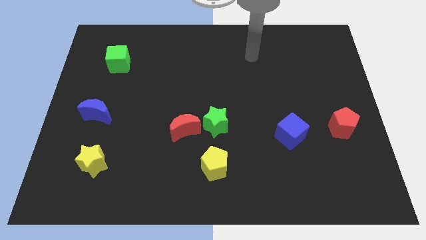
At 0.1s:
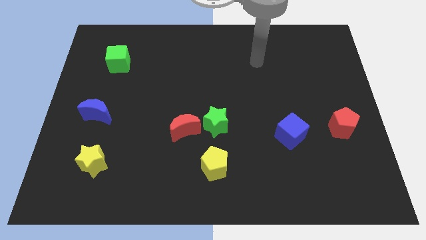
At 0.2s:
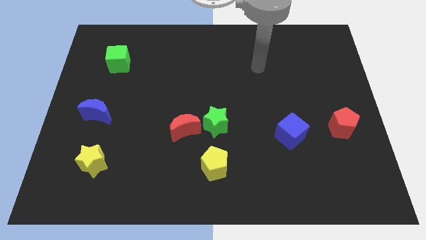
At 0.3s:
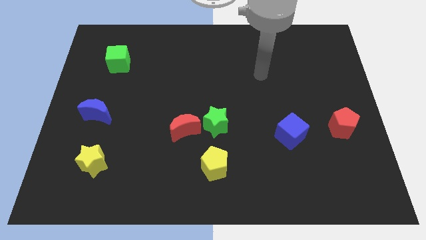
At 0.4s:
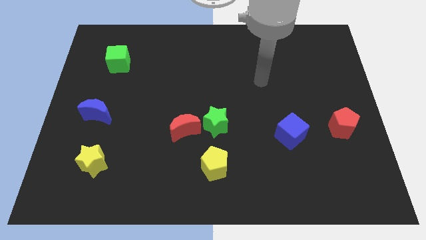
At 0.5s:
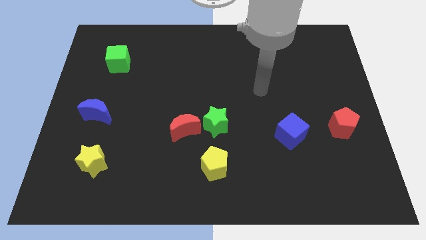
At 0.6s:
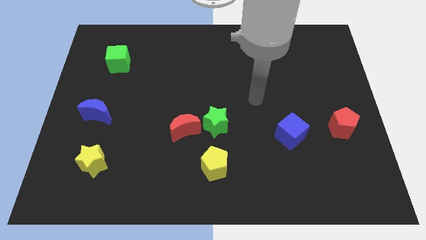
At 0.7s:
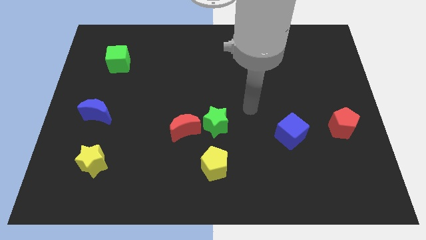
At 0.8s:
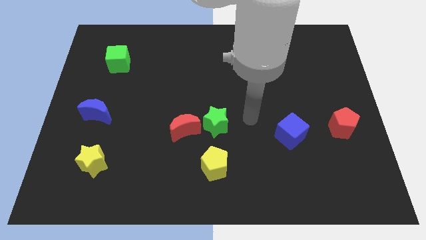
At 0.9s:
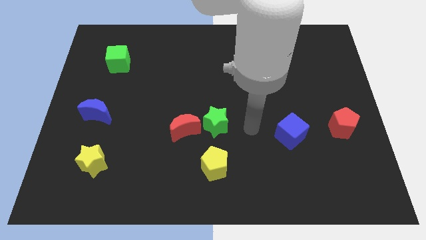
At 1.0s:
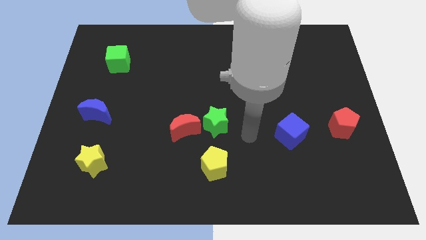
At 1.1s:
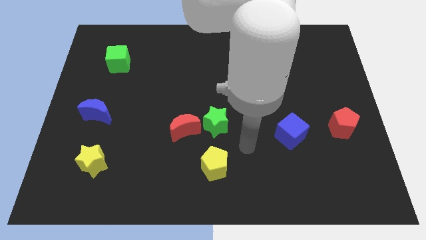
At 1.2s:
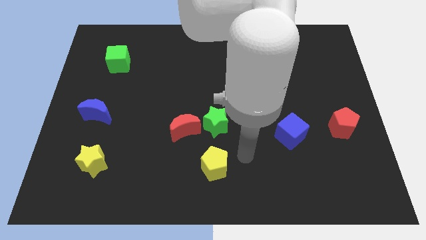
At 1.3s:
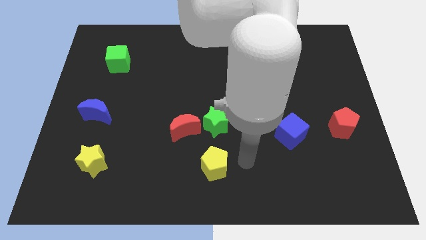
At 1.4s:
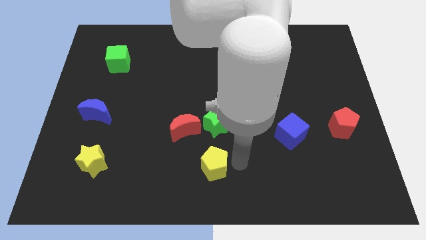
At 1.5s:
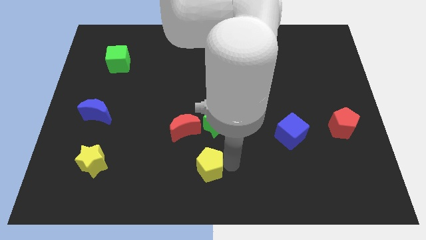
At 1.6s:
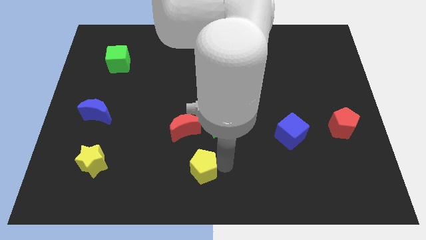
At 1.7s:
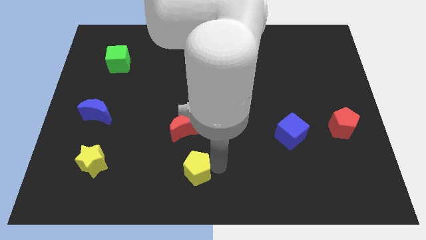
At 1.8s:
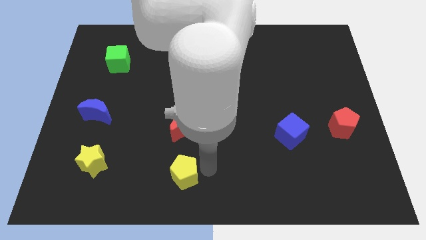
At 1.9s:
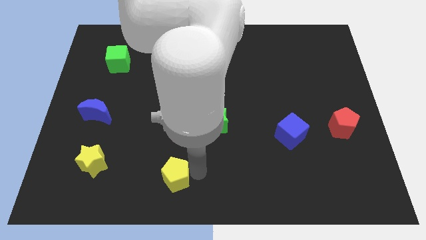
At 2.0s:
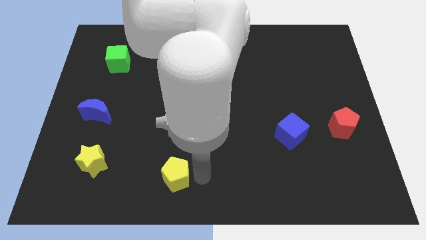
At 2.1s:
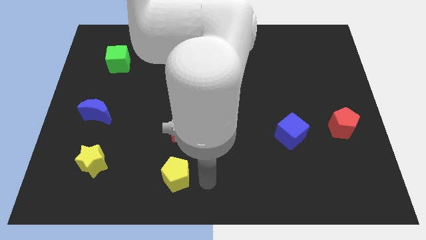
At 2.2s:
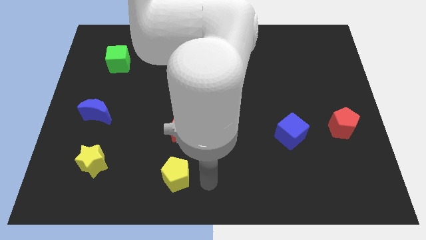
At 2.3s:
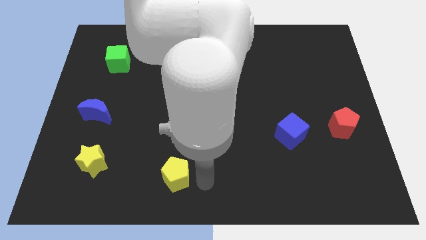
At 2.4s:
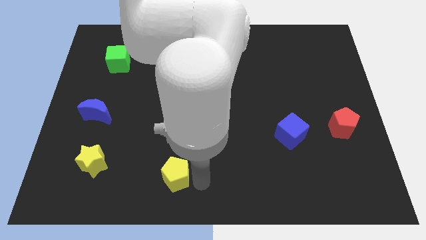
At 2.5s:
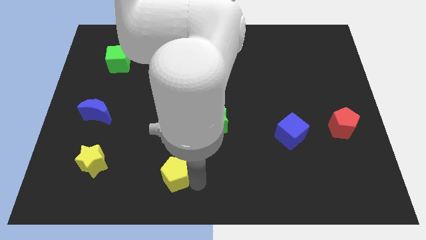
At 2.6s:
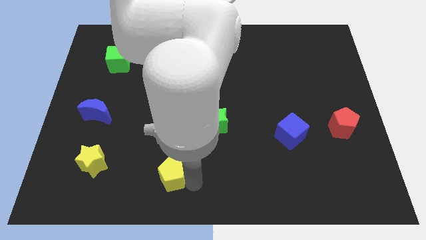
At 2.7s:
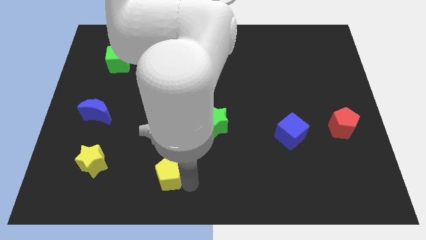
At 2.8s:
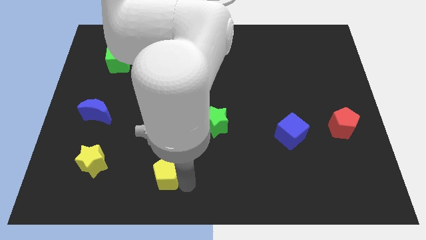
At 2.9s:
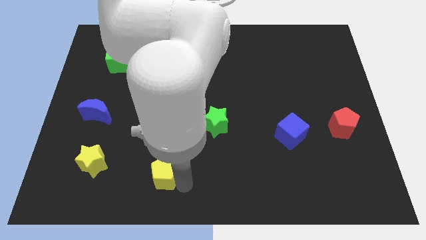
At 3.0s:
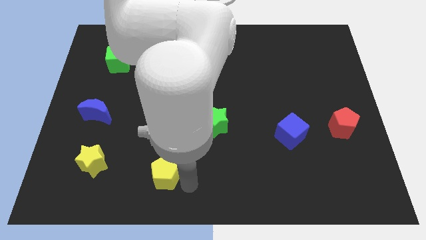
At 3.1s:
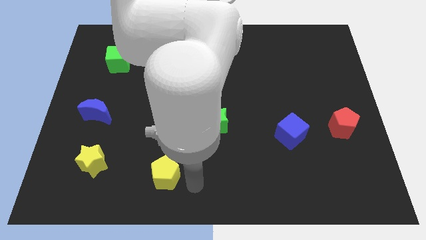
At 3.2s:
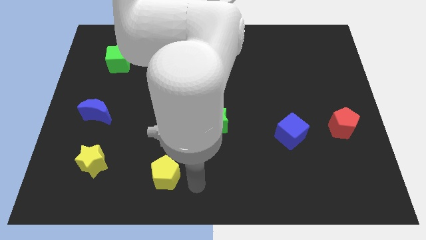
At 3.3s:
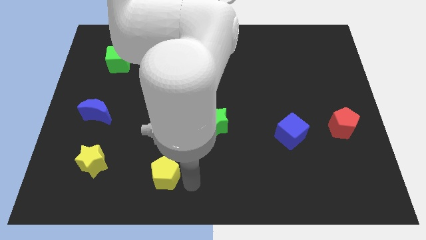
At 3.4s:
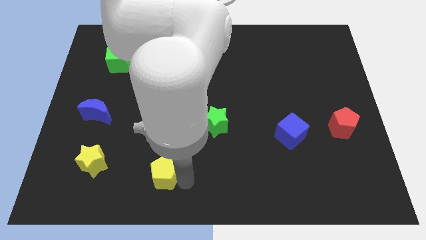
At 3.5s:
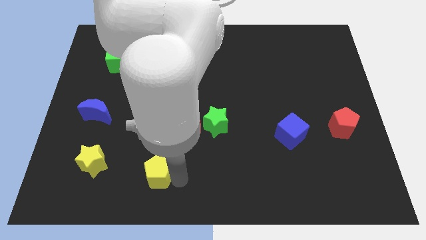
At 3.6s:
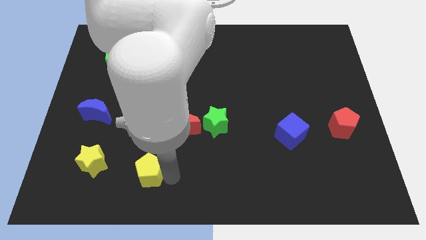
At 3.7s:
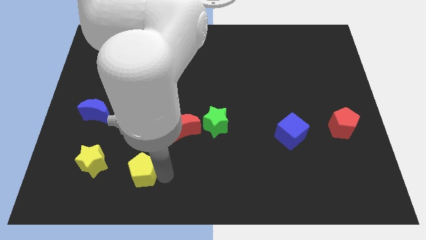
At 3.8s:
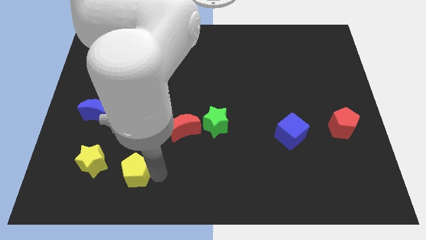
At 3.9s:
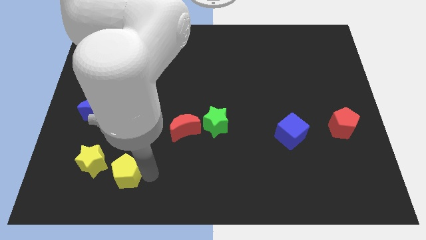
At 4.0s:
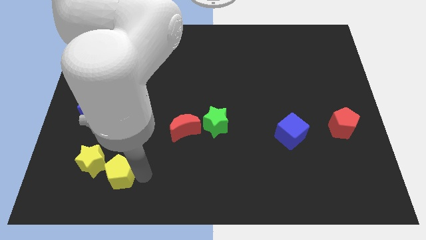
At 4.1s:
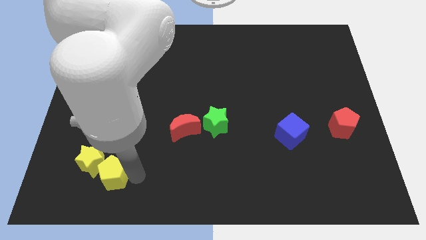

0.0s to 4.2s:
put the yellow pentagon close to the yellow star

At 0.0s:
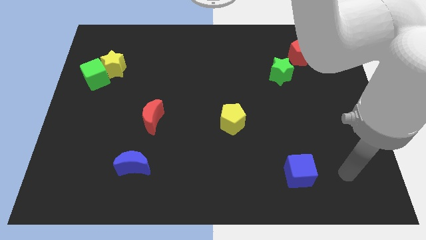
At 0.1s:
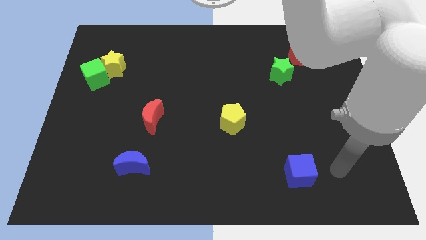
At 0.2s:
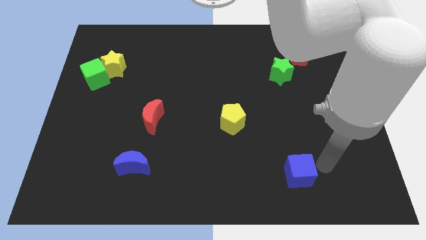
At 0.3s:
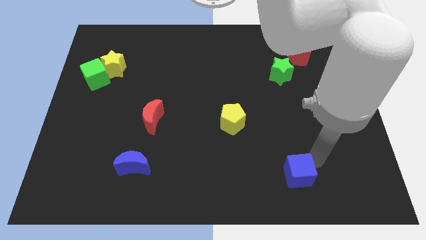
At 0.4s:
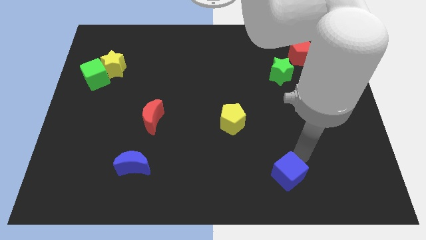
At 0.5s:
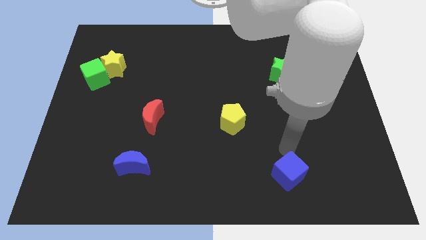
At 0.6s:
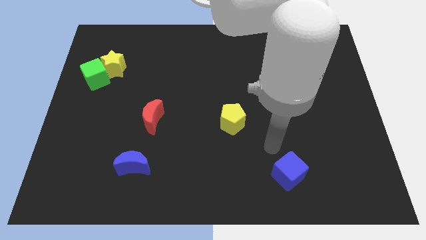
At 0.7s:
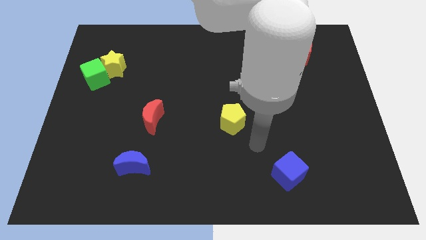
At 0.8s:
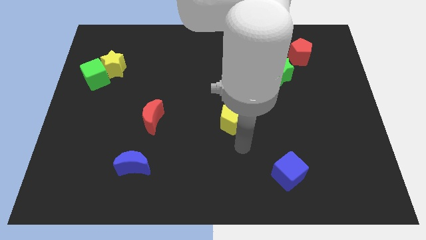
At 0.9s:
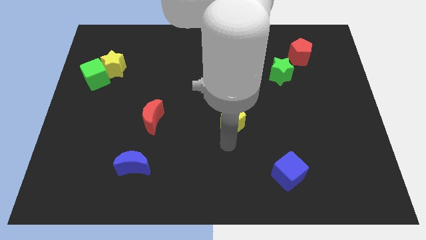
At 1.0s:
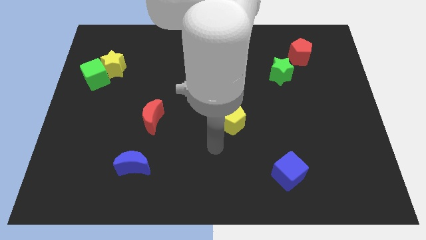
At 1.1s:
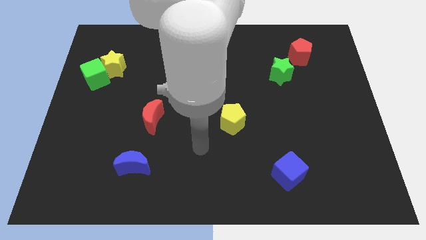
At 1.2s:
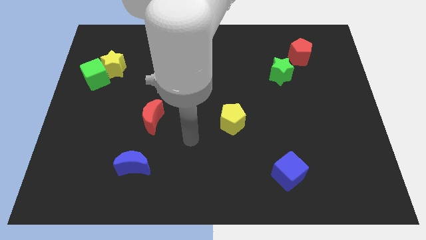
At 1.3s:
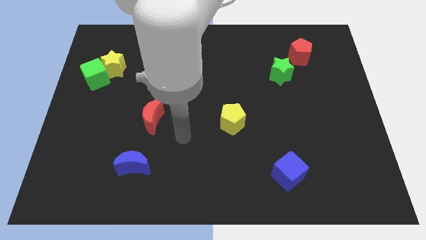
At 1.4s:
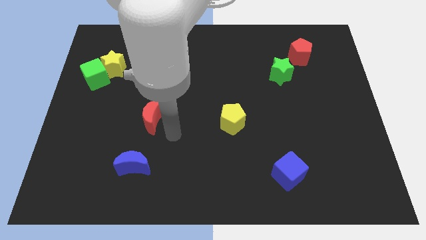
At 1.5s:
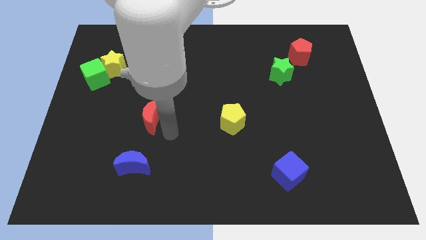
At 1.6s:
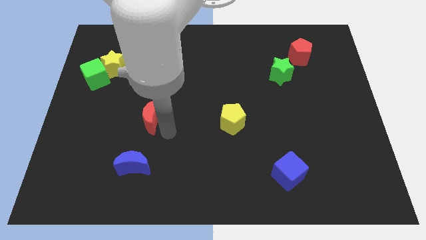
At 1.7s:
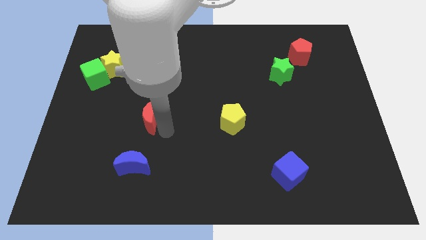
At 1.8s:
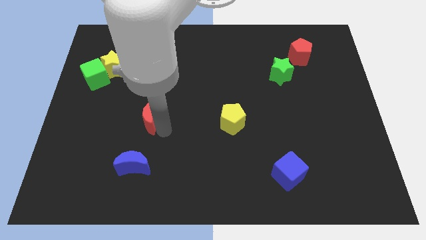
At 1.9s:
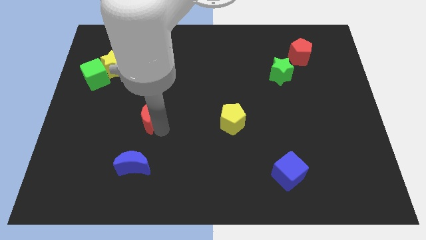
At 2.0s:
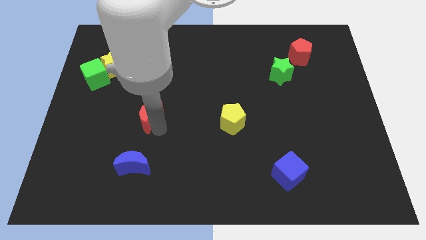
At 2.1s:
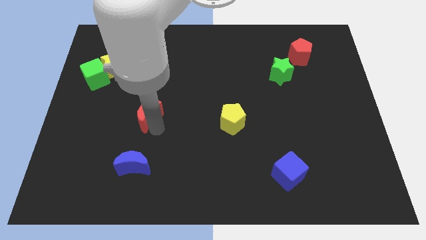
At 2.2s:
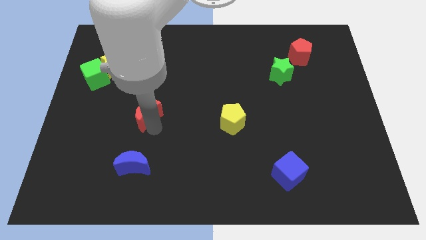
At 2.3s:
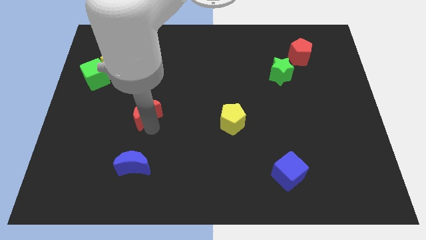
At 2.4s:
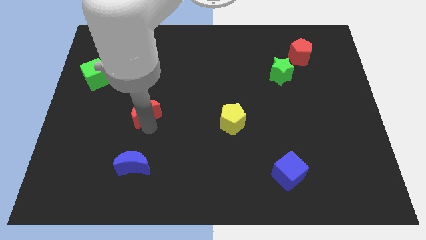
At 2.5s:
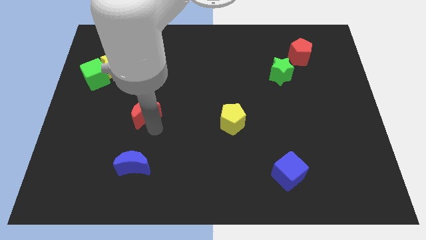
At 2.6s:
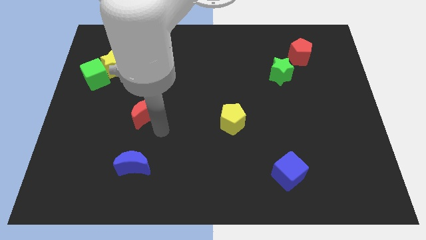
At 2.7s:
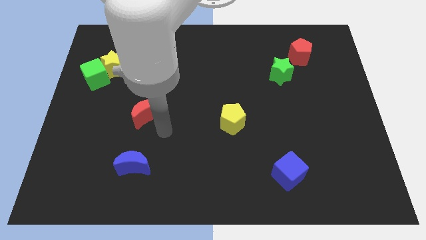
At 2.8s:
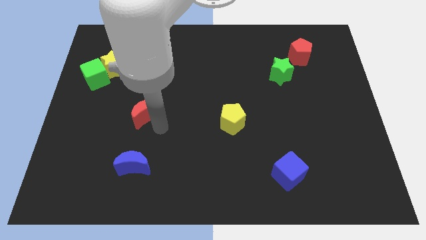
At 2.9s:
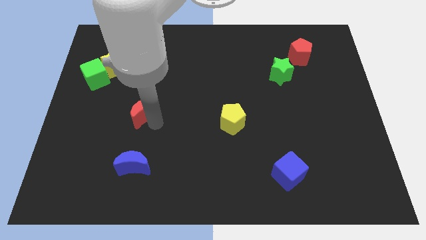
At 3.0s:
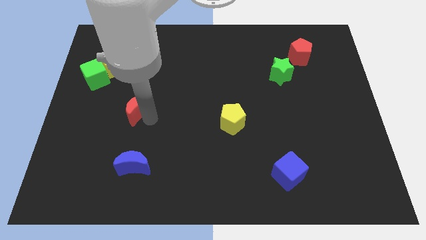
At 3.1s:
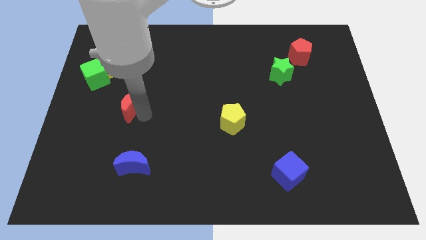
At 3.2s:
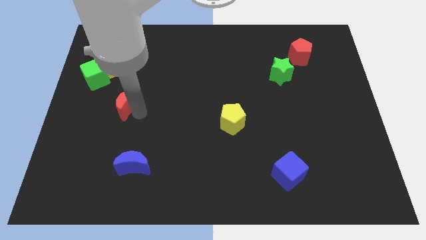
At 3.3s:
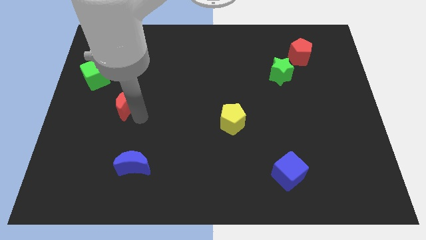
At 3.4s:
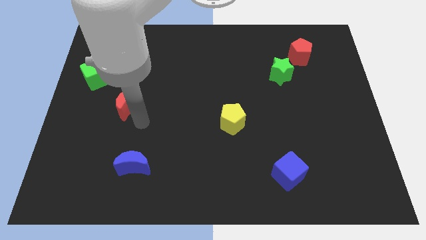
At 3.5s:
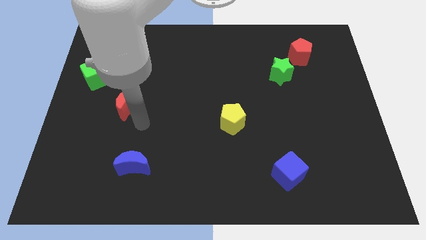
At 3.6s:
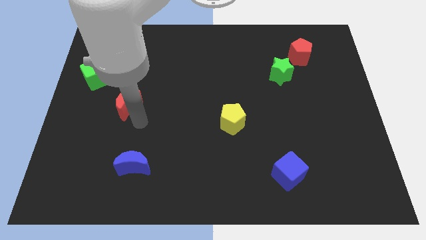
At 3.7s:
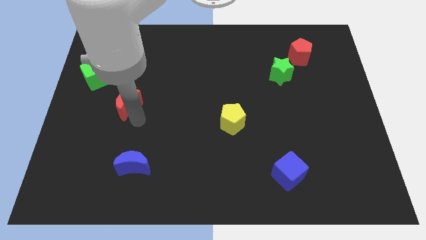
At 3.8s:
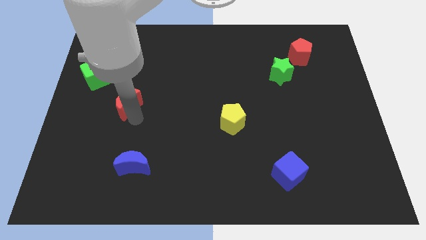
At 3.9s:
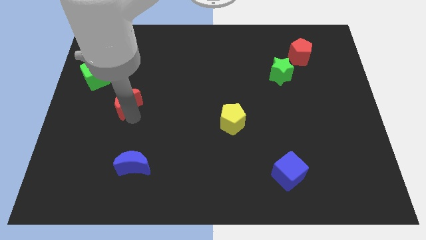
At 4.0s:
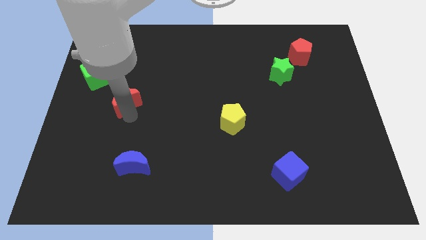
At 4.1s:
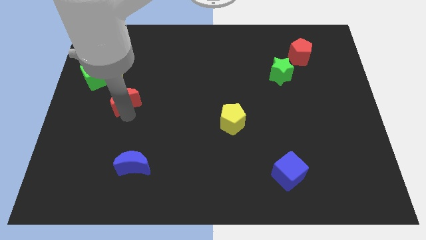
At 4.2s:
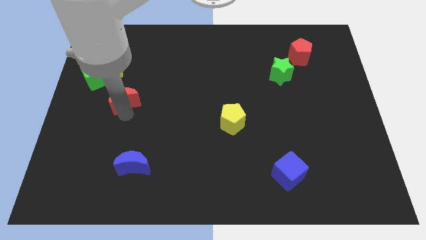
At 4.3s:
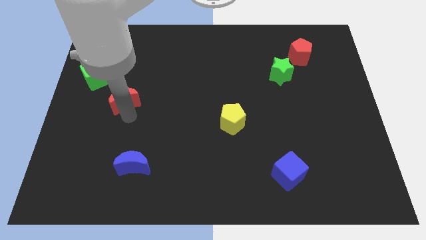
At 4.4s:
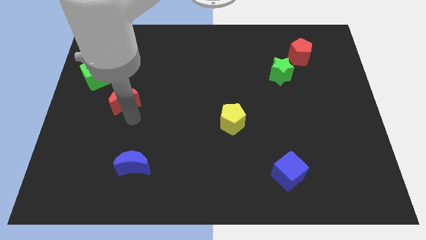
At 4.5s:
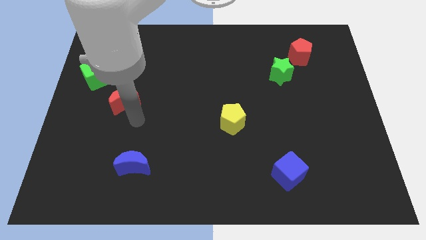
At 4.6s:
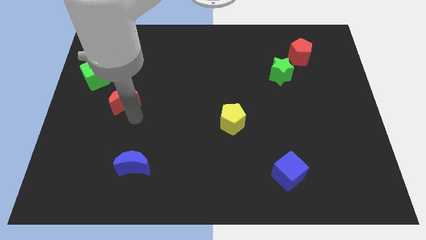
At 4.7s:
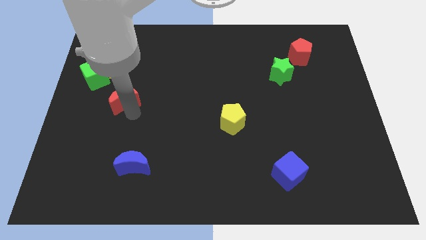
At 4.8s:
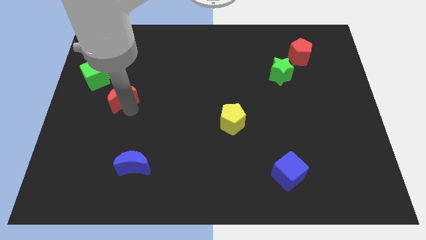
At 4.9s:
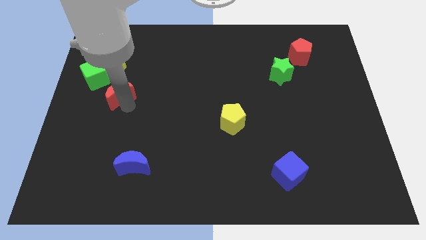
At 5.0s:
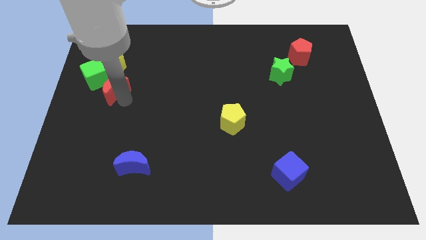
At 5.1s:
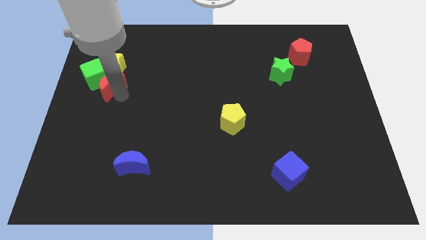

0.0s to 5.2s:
move the red moon close to the green cube
